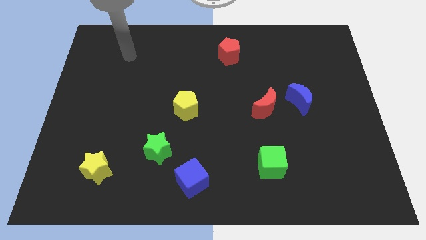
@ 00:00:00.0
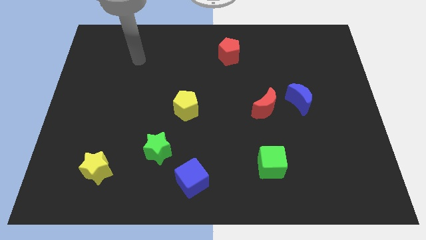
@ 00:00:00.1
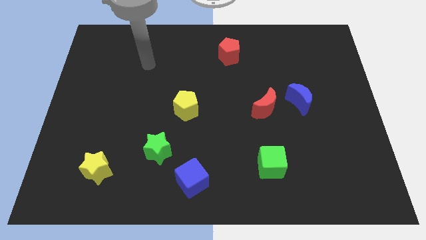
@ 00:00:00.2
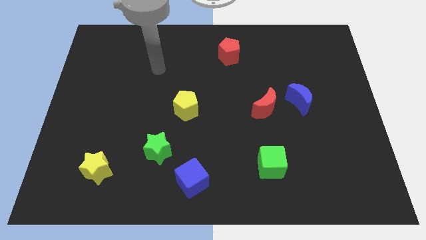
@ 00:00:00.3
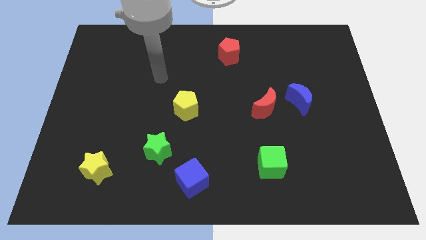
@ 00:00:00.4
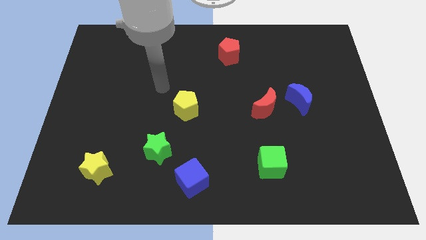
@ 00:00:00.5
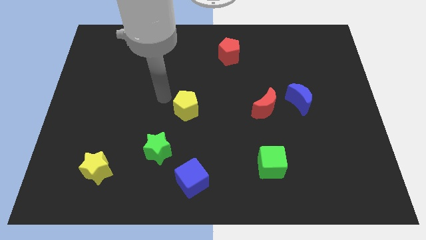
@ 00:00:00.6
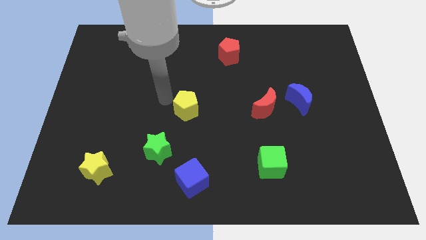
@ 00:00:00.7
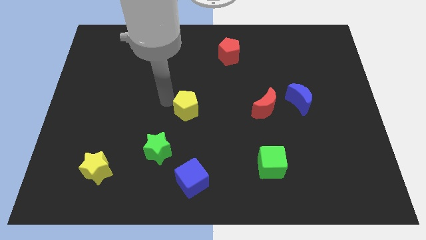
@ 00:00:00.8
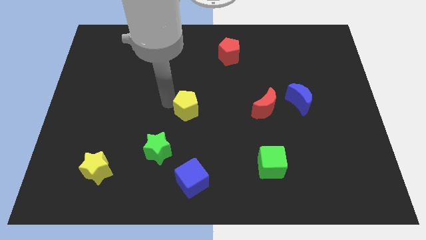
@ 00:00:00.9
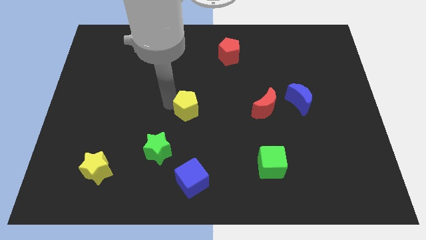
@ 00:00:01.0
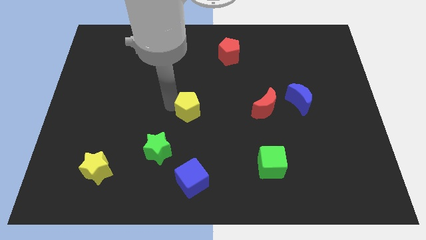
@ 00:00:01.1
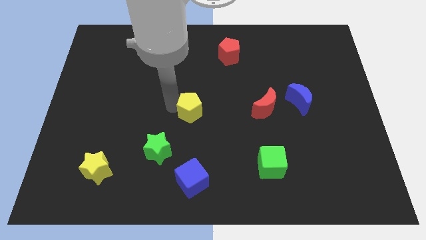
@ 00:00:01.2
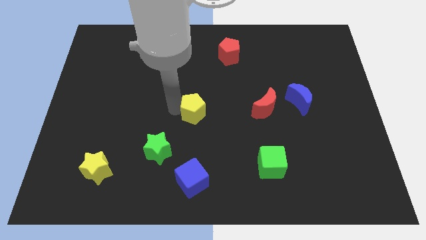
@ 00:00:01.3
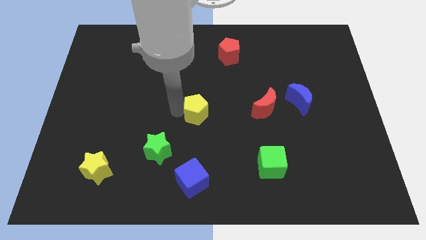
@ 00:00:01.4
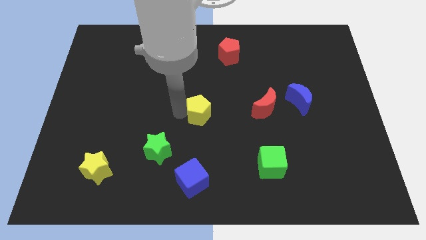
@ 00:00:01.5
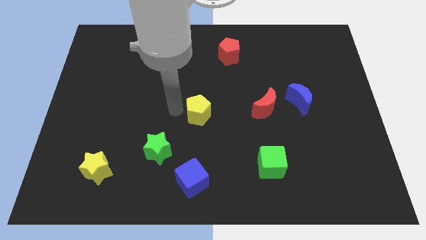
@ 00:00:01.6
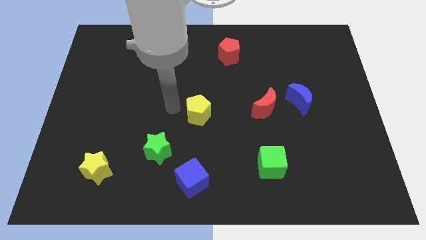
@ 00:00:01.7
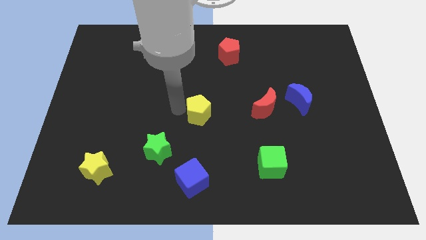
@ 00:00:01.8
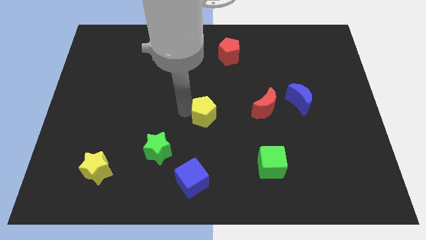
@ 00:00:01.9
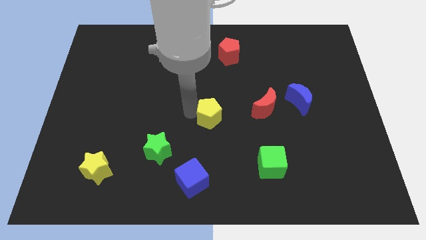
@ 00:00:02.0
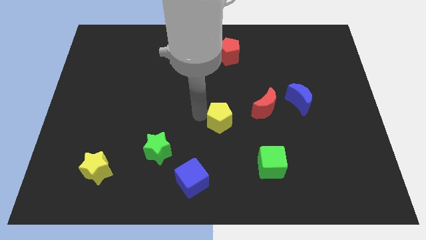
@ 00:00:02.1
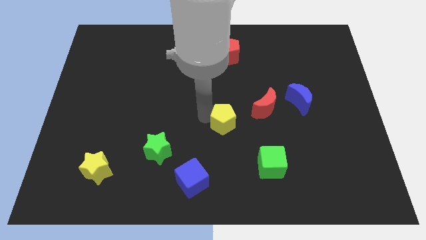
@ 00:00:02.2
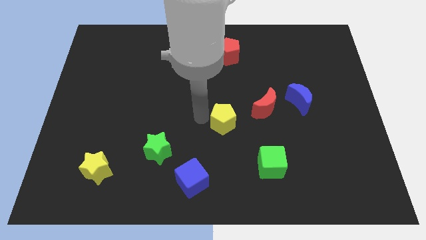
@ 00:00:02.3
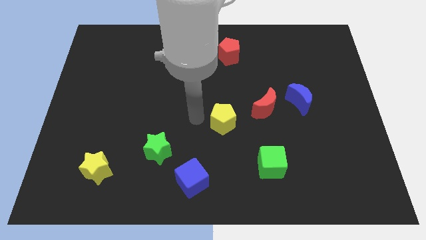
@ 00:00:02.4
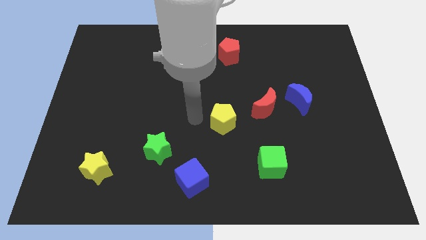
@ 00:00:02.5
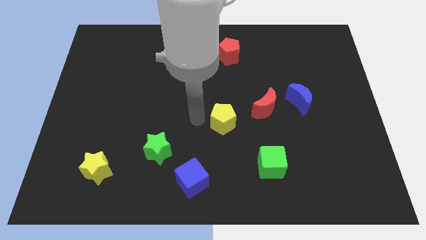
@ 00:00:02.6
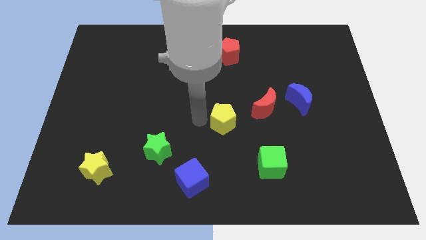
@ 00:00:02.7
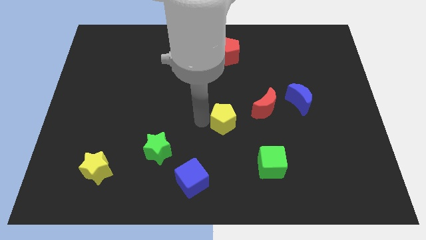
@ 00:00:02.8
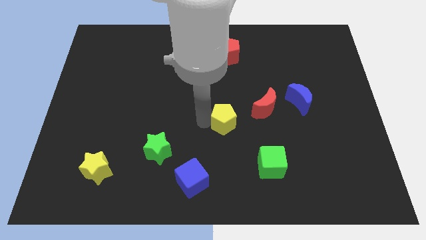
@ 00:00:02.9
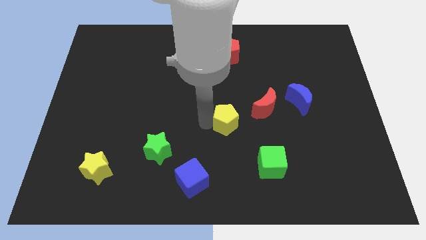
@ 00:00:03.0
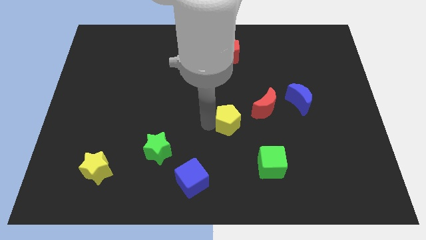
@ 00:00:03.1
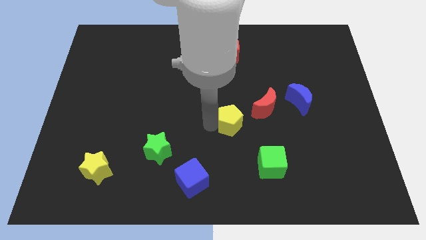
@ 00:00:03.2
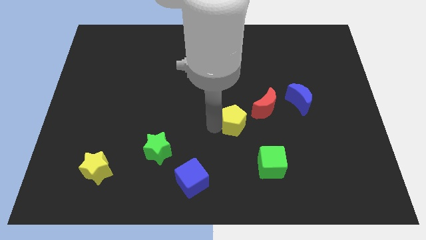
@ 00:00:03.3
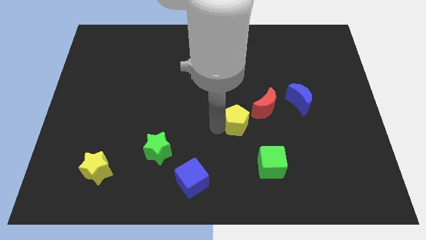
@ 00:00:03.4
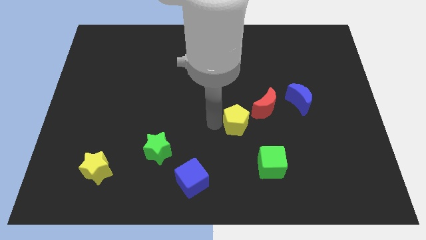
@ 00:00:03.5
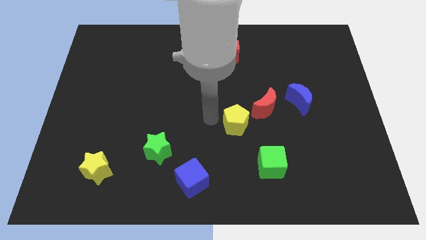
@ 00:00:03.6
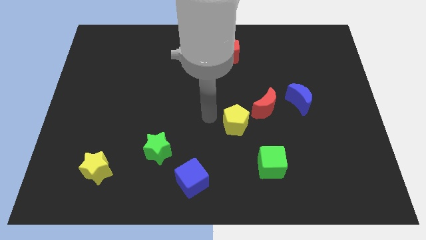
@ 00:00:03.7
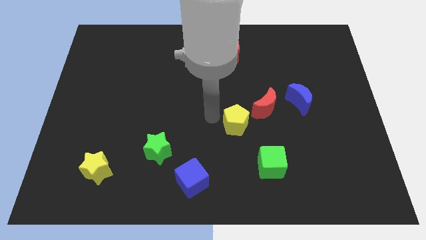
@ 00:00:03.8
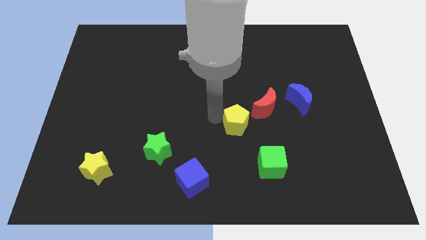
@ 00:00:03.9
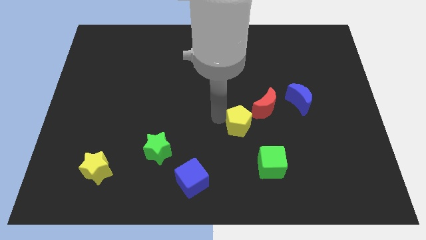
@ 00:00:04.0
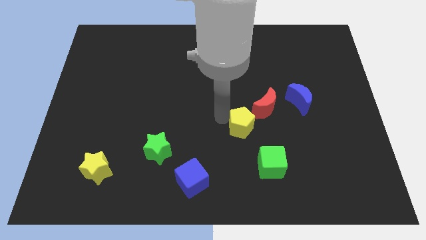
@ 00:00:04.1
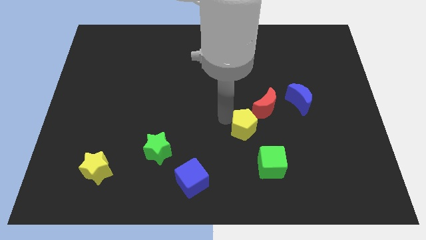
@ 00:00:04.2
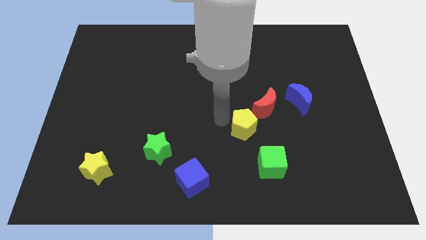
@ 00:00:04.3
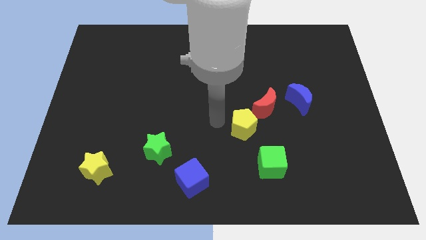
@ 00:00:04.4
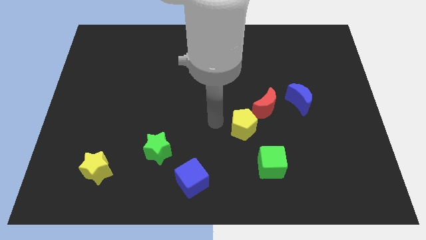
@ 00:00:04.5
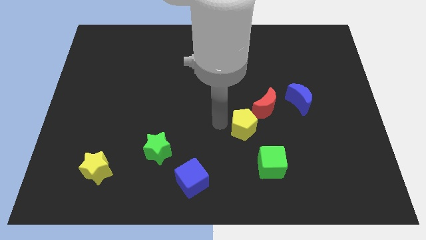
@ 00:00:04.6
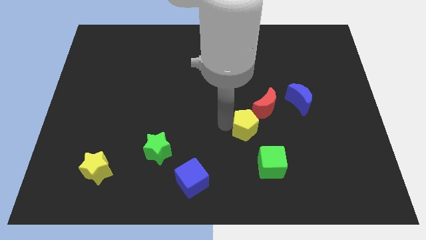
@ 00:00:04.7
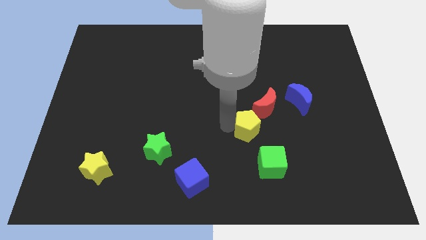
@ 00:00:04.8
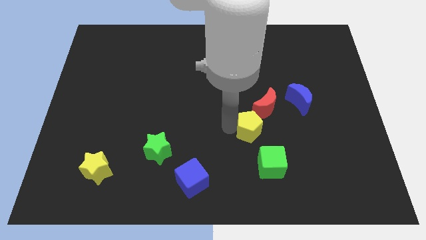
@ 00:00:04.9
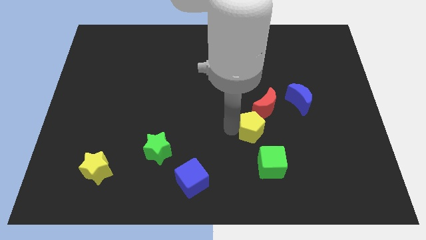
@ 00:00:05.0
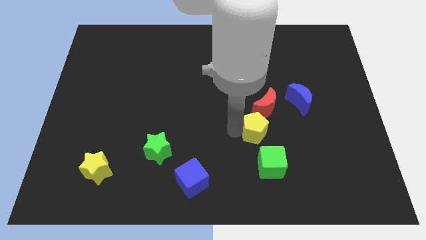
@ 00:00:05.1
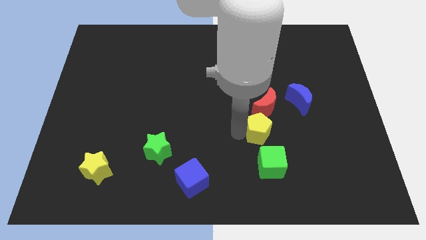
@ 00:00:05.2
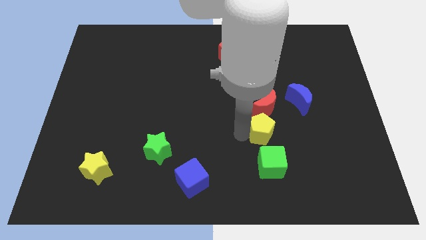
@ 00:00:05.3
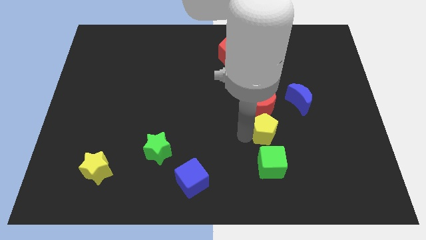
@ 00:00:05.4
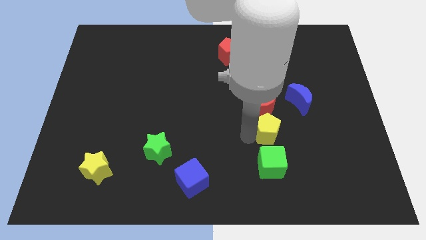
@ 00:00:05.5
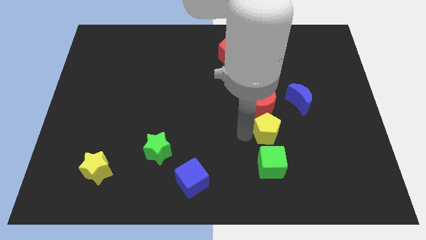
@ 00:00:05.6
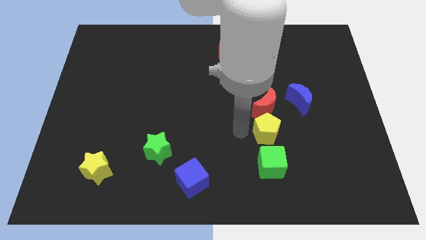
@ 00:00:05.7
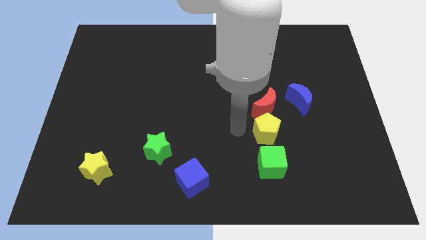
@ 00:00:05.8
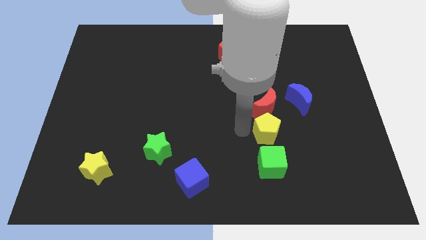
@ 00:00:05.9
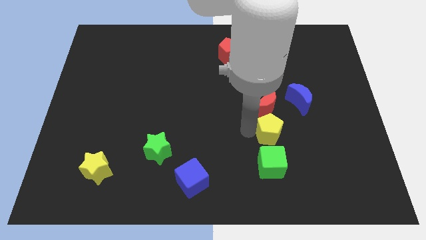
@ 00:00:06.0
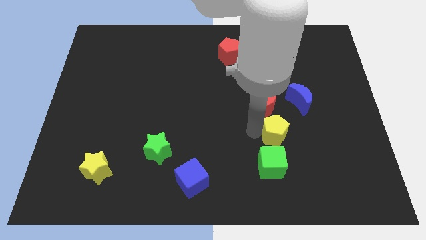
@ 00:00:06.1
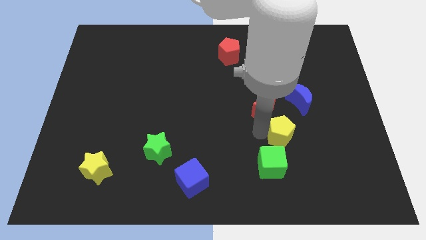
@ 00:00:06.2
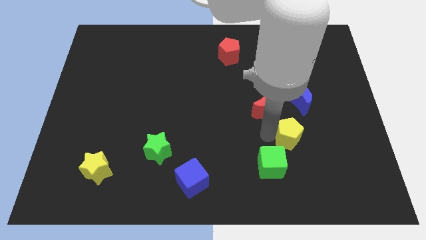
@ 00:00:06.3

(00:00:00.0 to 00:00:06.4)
move the yellow pentagon right

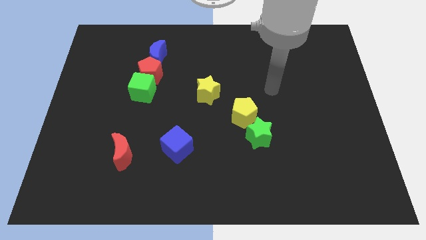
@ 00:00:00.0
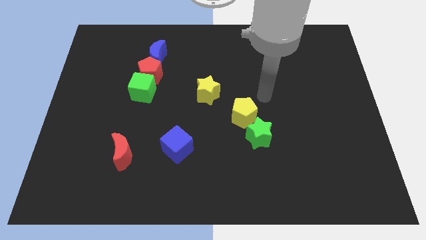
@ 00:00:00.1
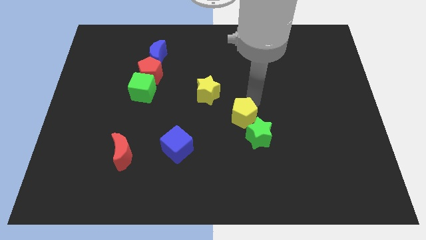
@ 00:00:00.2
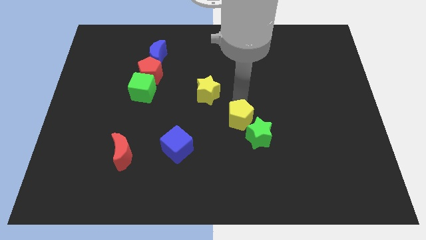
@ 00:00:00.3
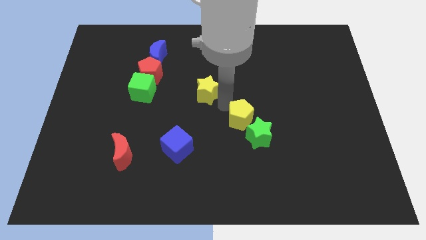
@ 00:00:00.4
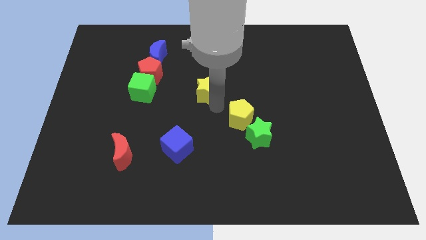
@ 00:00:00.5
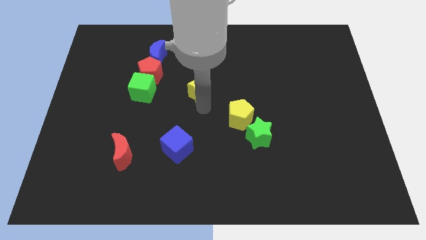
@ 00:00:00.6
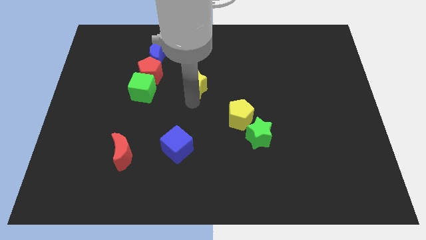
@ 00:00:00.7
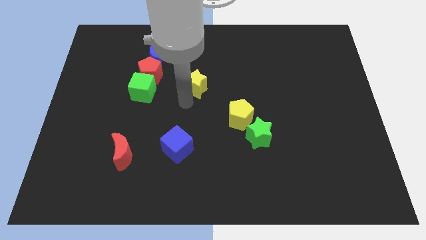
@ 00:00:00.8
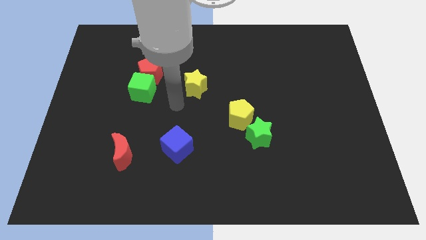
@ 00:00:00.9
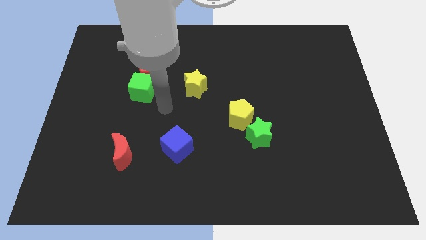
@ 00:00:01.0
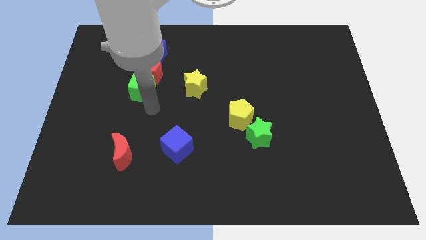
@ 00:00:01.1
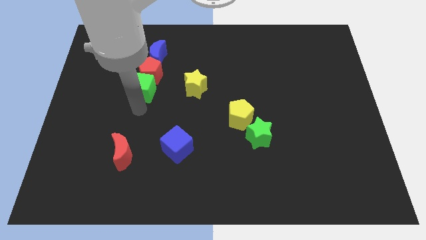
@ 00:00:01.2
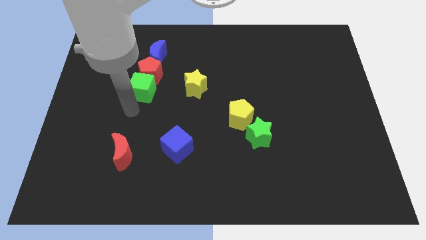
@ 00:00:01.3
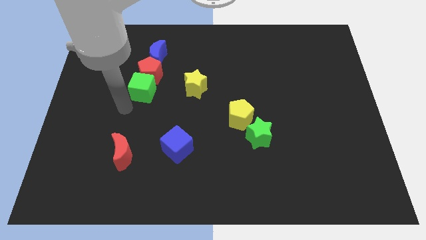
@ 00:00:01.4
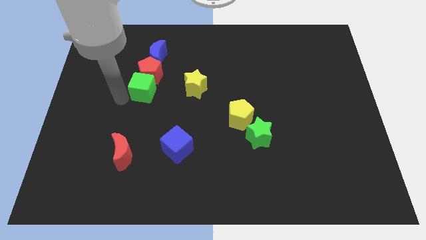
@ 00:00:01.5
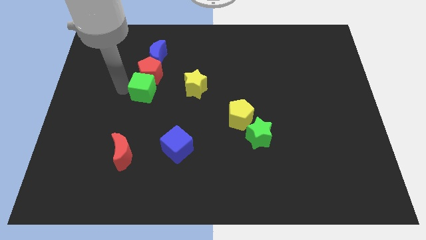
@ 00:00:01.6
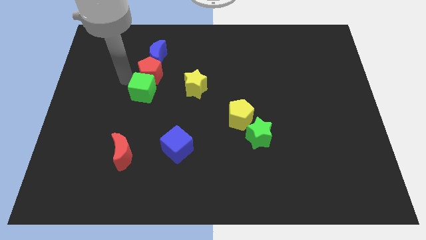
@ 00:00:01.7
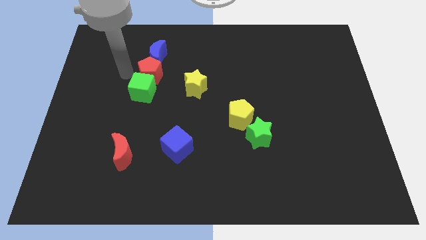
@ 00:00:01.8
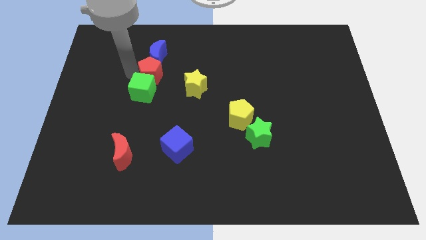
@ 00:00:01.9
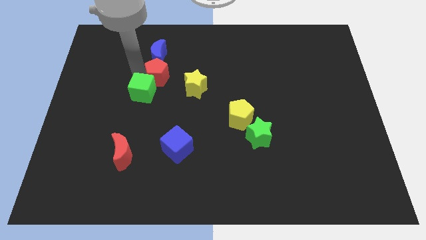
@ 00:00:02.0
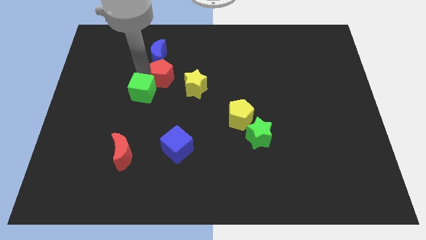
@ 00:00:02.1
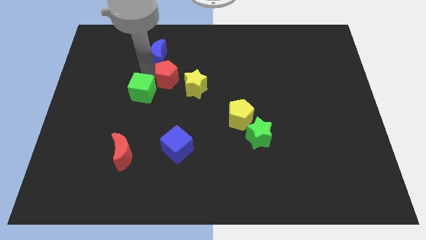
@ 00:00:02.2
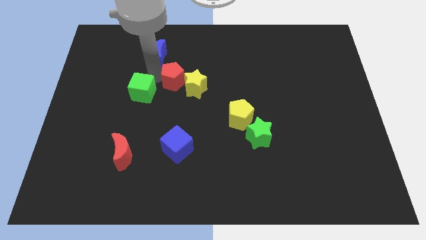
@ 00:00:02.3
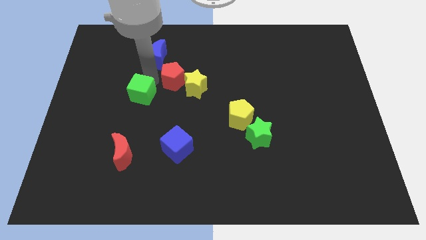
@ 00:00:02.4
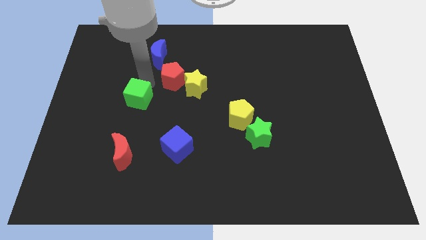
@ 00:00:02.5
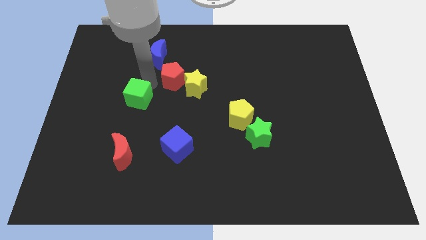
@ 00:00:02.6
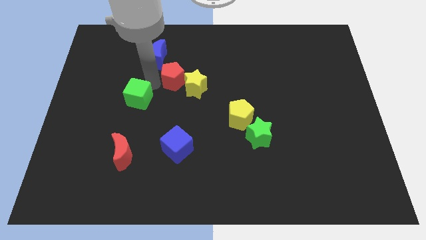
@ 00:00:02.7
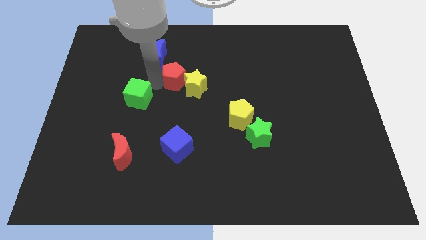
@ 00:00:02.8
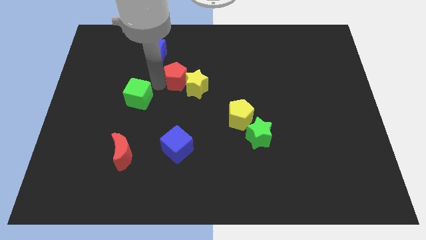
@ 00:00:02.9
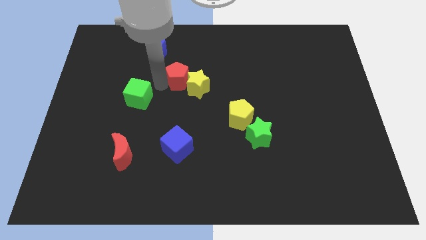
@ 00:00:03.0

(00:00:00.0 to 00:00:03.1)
push the red pentagon right slightly
